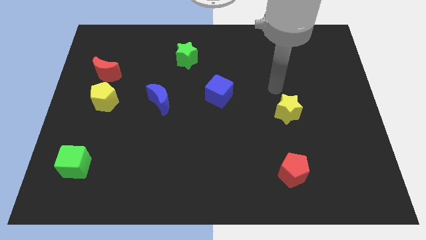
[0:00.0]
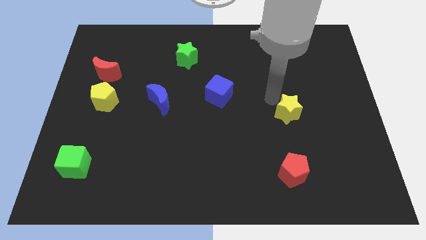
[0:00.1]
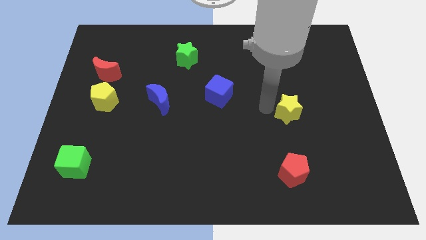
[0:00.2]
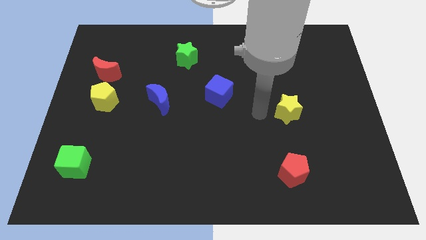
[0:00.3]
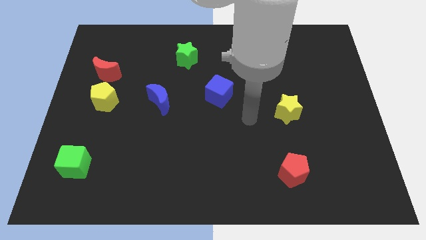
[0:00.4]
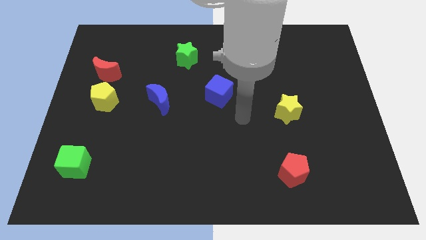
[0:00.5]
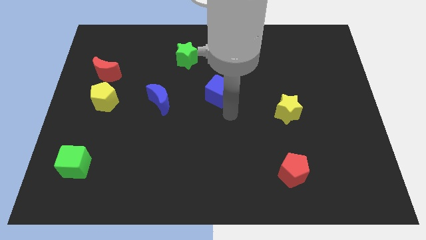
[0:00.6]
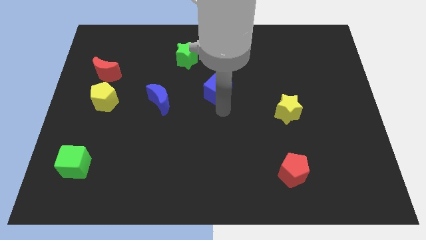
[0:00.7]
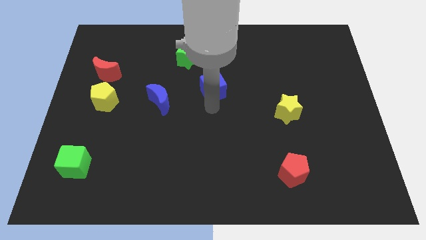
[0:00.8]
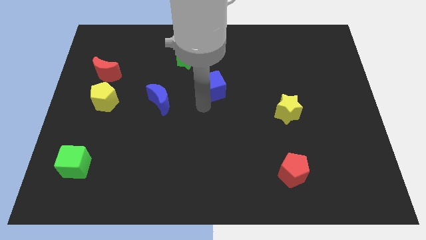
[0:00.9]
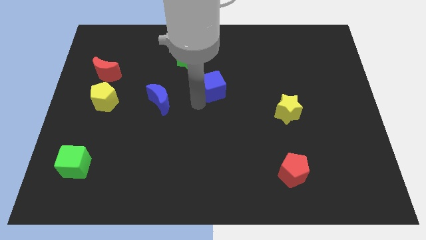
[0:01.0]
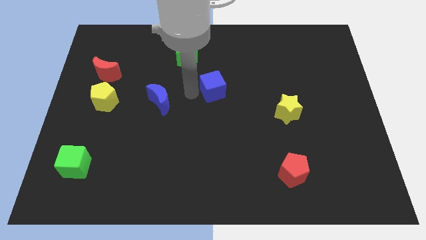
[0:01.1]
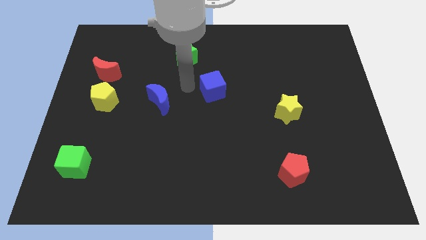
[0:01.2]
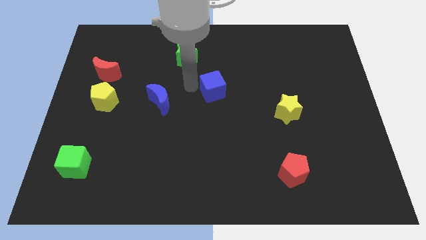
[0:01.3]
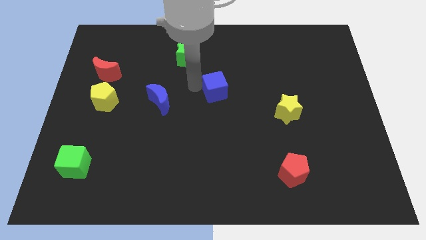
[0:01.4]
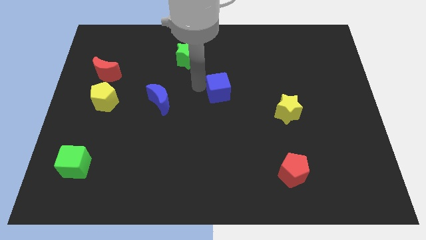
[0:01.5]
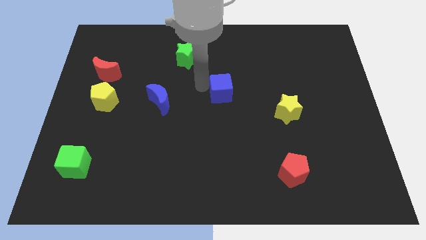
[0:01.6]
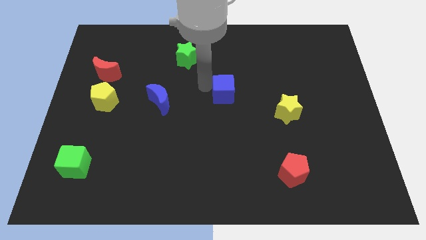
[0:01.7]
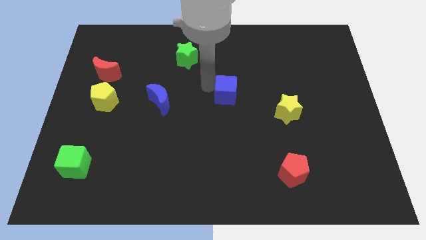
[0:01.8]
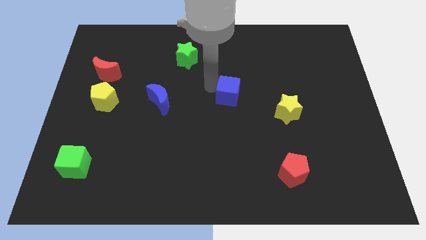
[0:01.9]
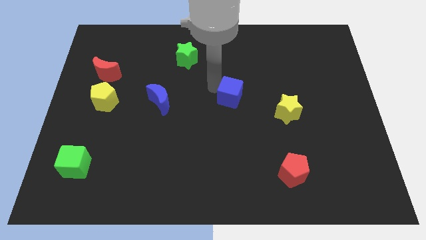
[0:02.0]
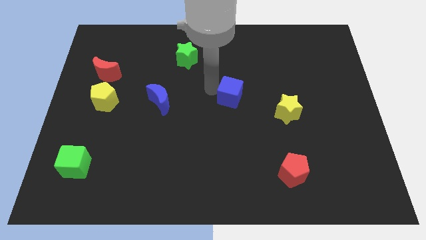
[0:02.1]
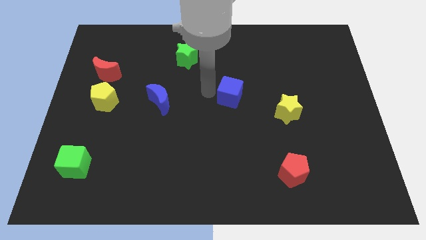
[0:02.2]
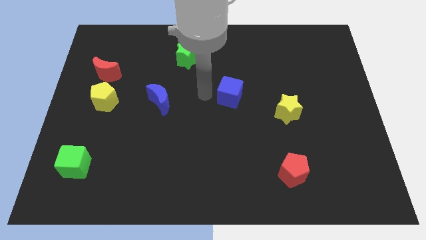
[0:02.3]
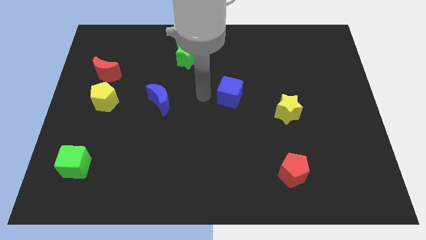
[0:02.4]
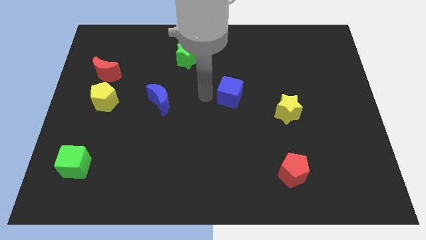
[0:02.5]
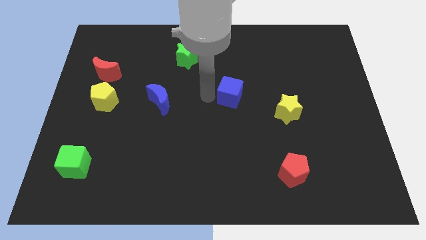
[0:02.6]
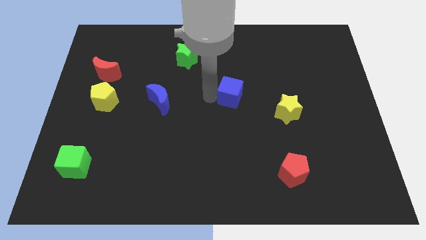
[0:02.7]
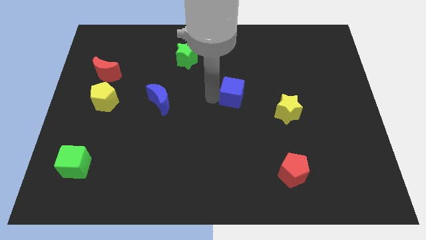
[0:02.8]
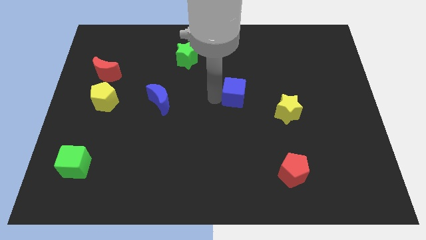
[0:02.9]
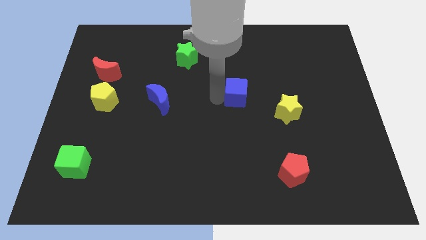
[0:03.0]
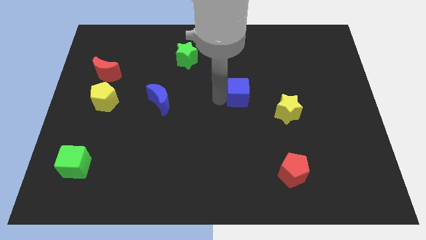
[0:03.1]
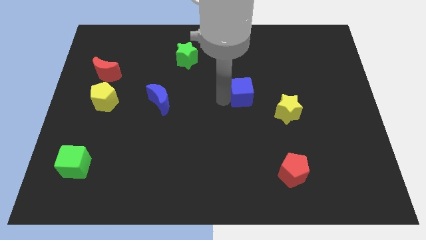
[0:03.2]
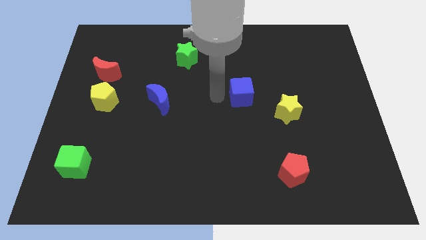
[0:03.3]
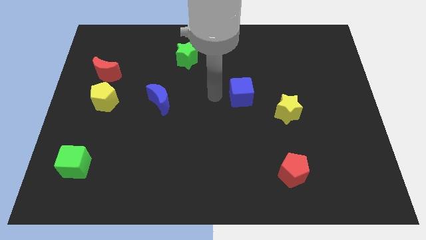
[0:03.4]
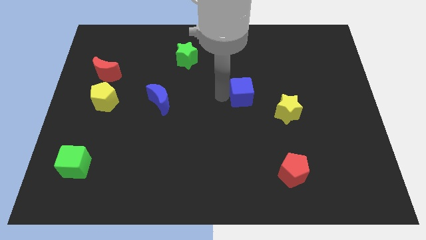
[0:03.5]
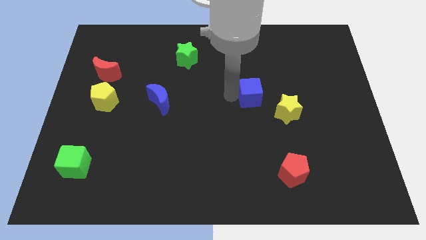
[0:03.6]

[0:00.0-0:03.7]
move the blue cube to the right a little bit

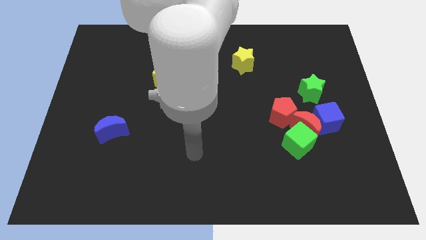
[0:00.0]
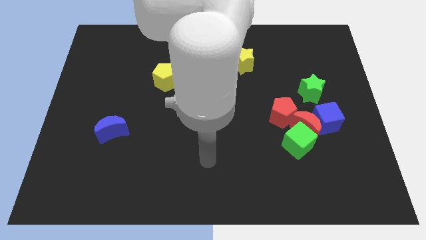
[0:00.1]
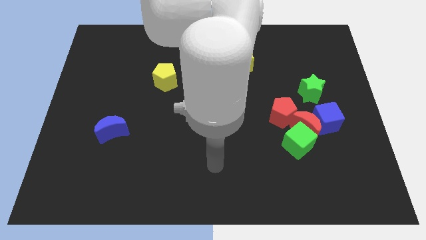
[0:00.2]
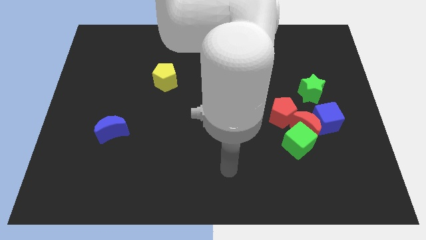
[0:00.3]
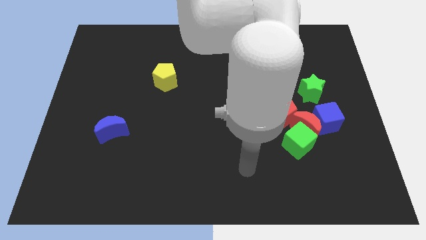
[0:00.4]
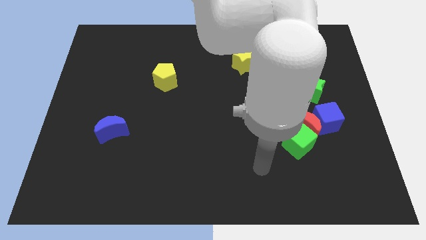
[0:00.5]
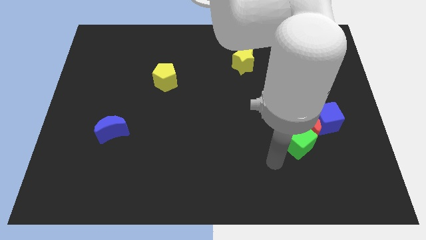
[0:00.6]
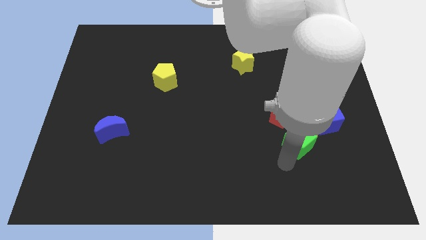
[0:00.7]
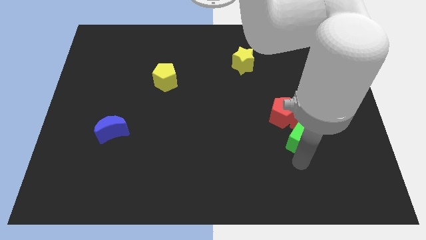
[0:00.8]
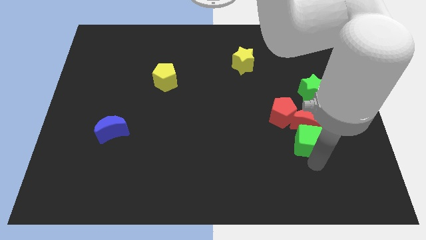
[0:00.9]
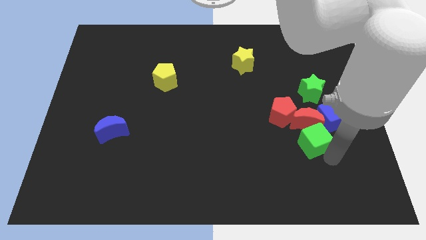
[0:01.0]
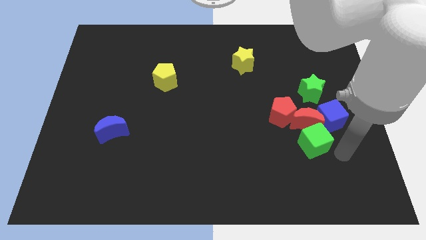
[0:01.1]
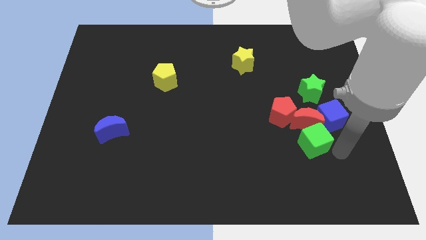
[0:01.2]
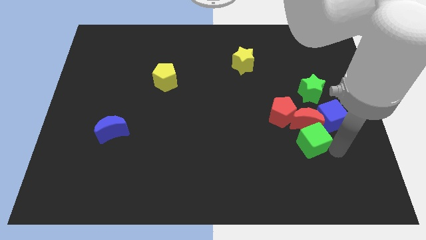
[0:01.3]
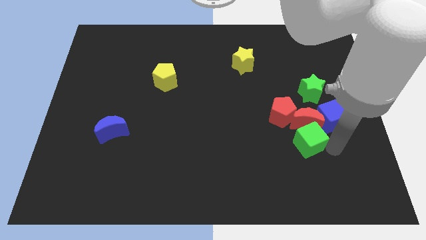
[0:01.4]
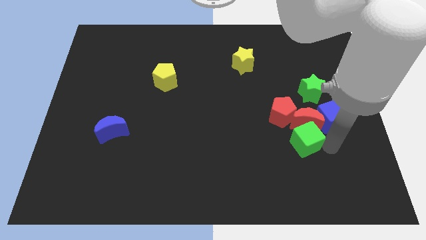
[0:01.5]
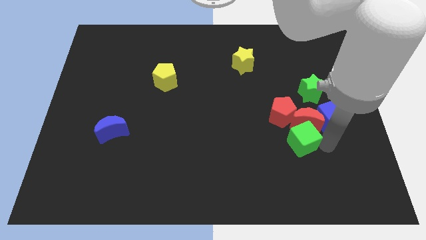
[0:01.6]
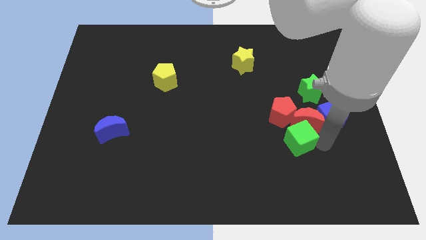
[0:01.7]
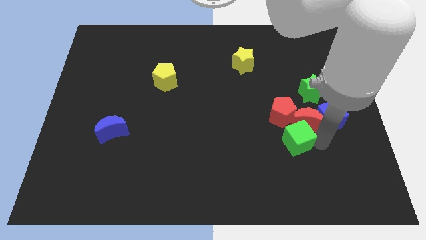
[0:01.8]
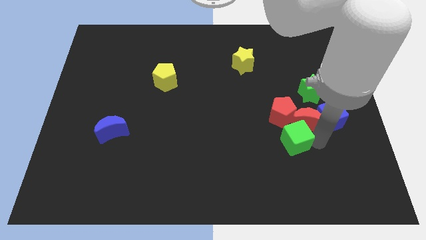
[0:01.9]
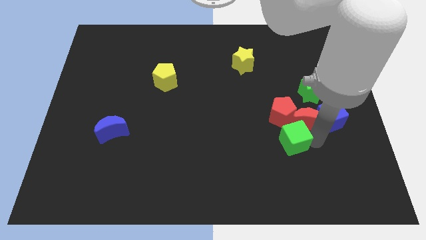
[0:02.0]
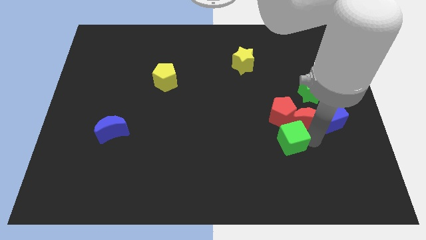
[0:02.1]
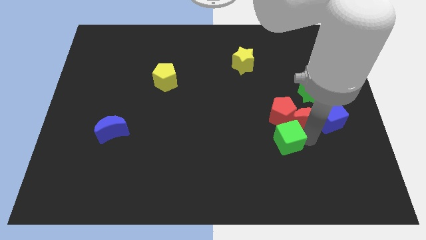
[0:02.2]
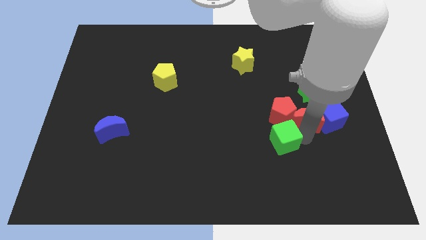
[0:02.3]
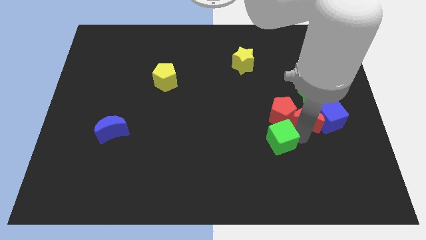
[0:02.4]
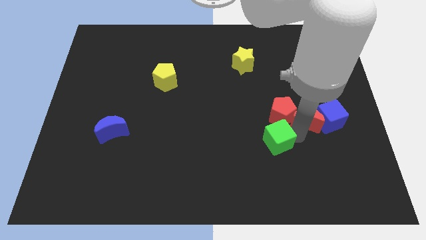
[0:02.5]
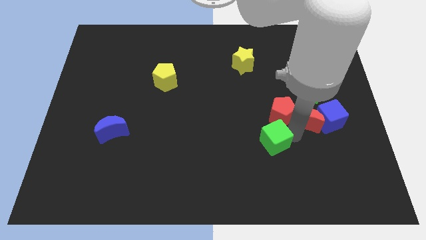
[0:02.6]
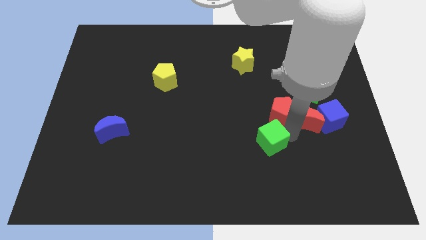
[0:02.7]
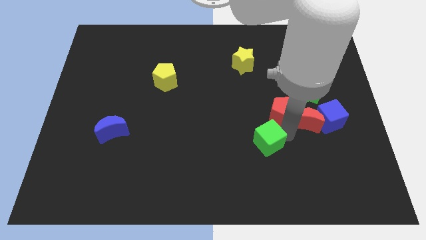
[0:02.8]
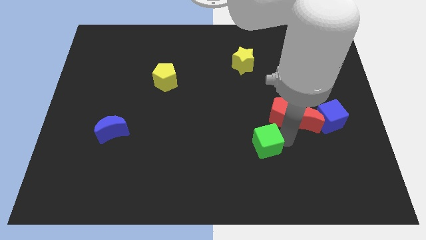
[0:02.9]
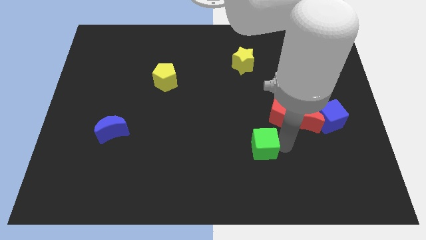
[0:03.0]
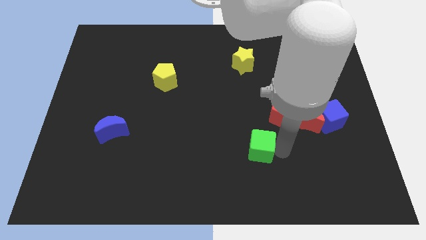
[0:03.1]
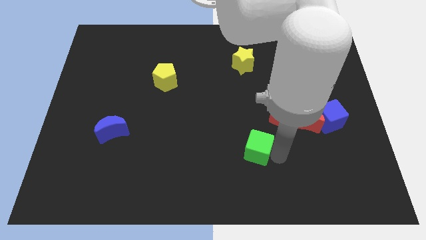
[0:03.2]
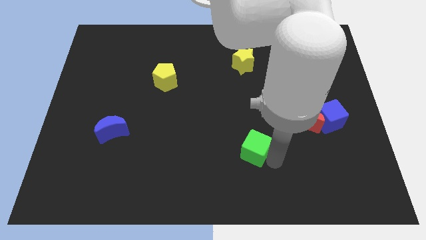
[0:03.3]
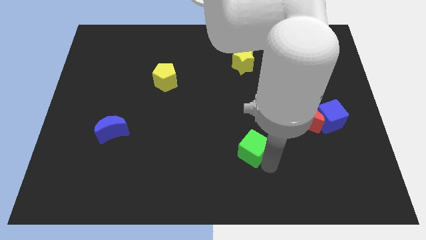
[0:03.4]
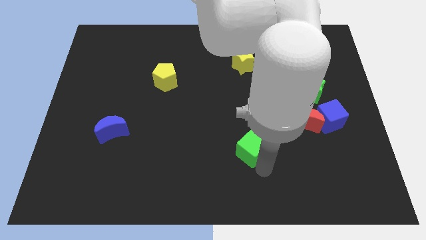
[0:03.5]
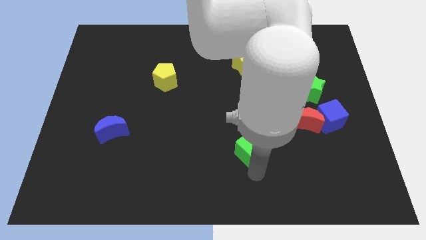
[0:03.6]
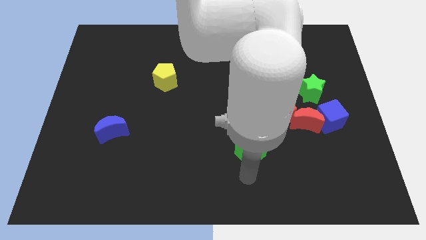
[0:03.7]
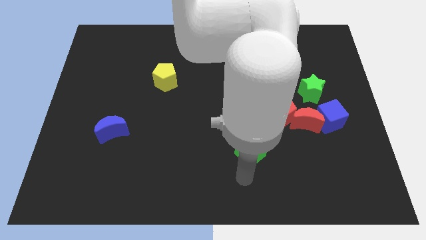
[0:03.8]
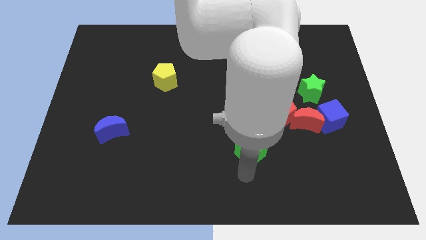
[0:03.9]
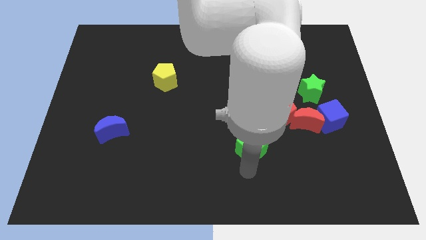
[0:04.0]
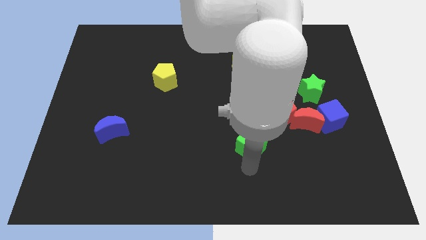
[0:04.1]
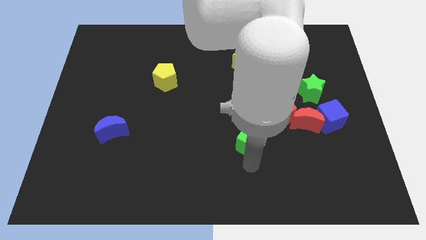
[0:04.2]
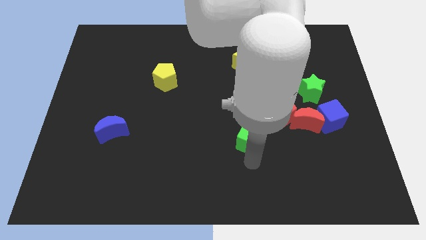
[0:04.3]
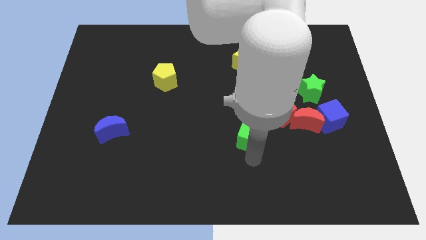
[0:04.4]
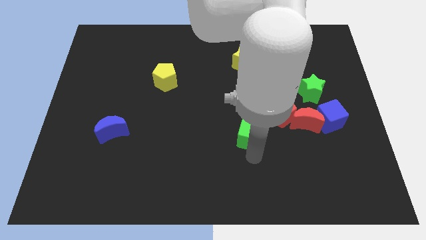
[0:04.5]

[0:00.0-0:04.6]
slightly slide the green cube up and then left
